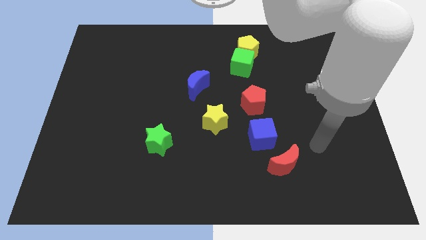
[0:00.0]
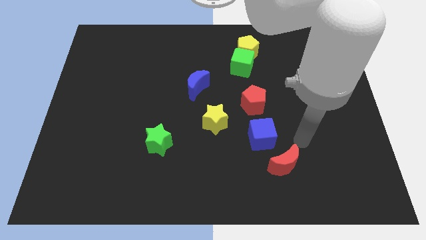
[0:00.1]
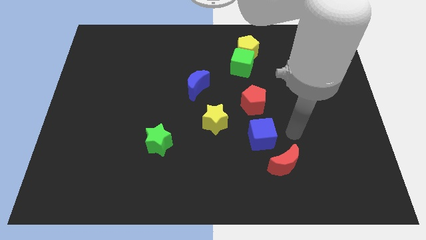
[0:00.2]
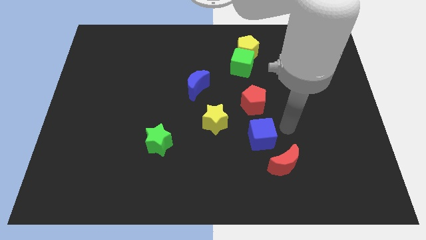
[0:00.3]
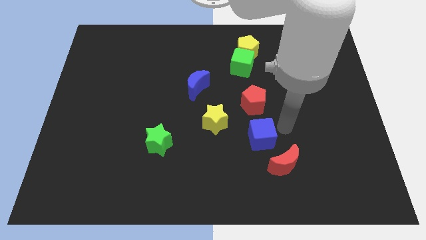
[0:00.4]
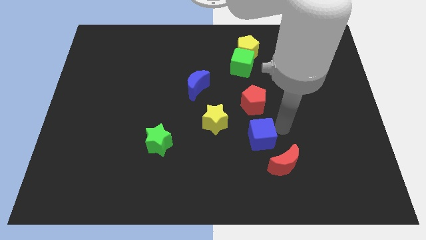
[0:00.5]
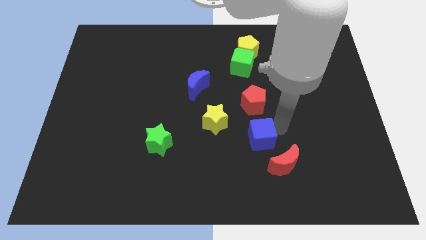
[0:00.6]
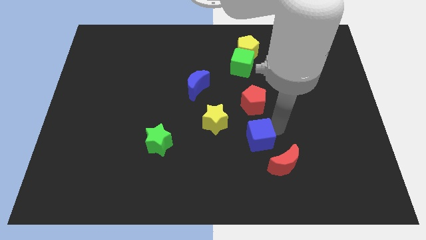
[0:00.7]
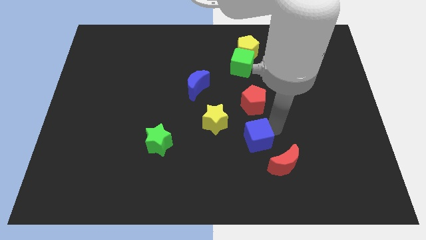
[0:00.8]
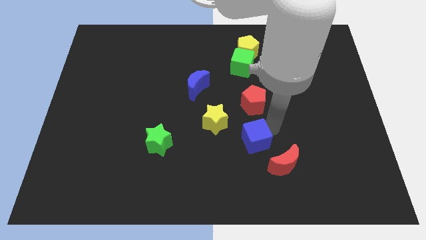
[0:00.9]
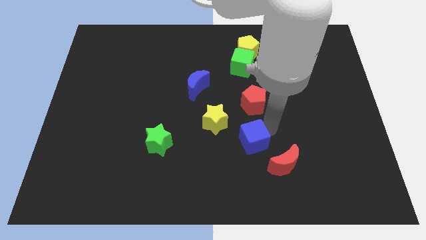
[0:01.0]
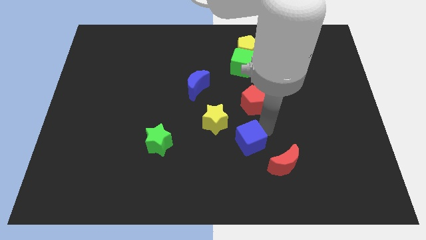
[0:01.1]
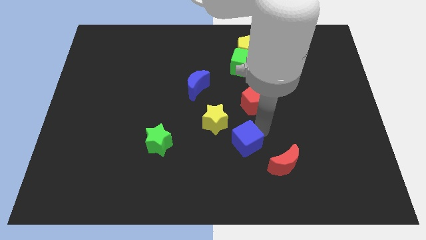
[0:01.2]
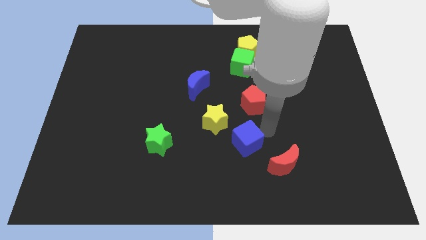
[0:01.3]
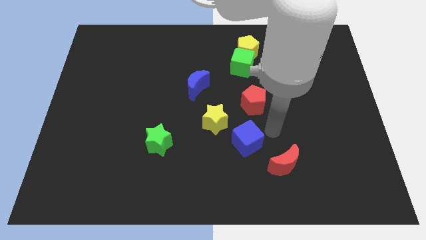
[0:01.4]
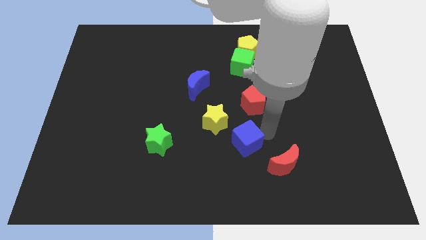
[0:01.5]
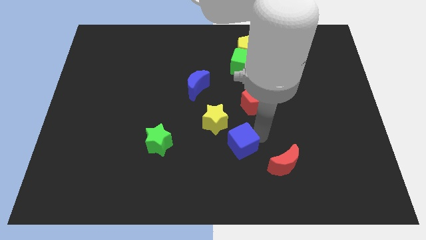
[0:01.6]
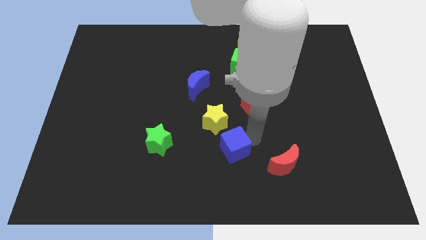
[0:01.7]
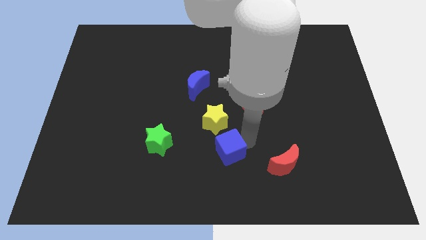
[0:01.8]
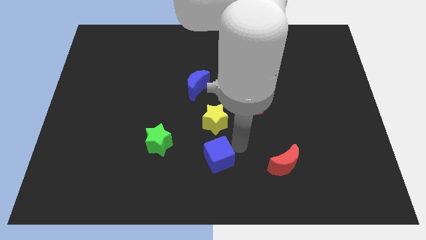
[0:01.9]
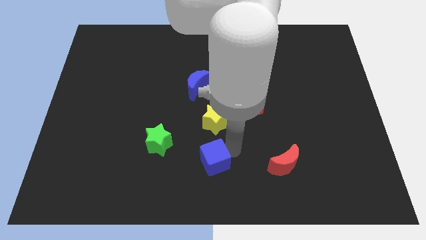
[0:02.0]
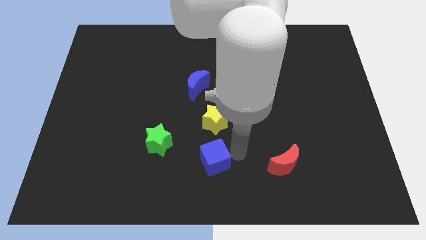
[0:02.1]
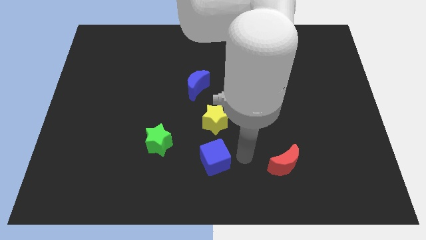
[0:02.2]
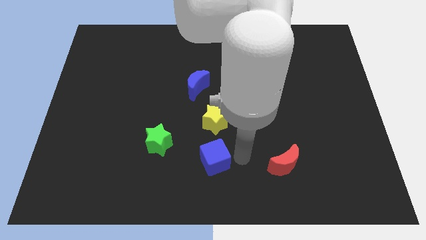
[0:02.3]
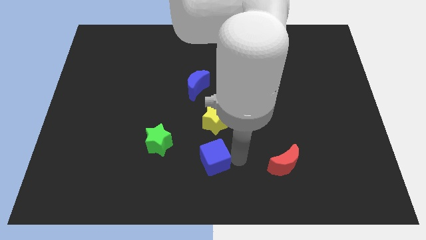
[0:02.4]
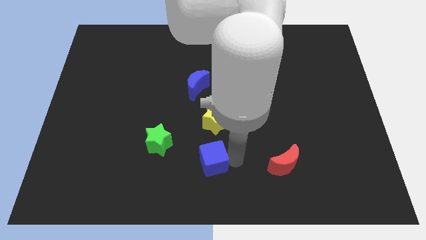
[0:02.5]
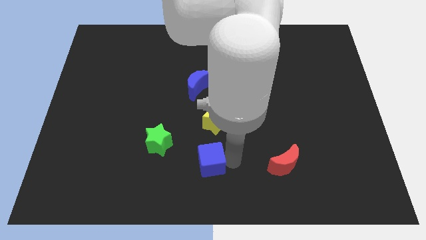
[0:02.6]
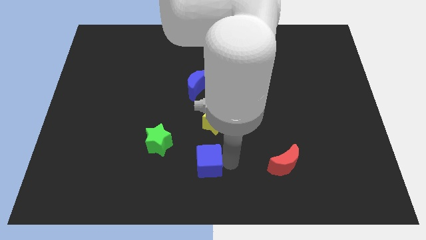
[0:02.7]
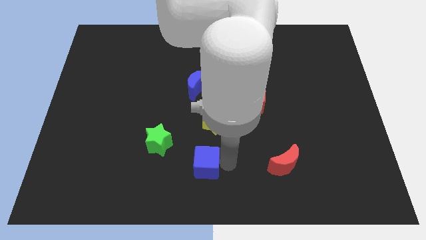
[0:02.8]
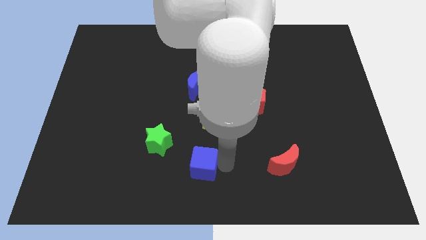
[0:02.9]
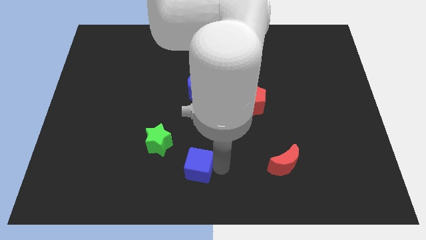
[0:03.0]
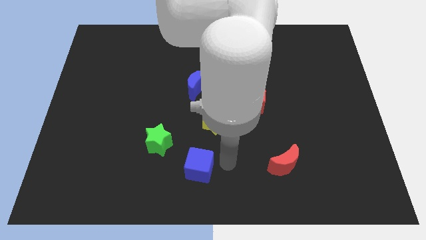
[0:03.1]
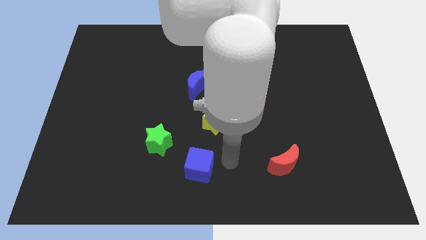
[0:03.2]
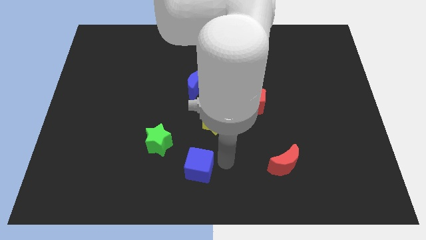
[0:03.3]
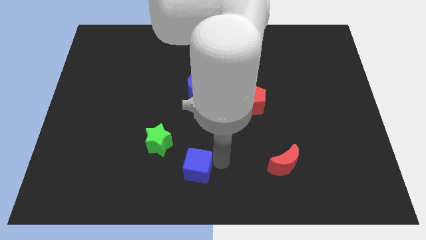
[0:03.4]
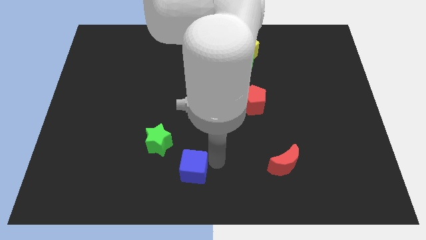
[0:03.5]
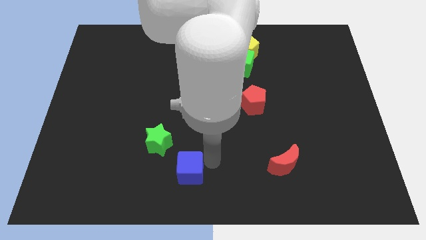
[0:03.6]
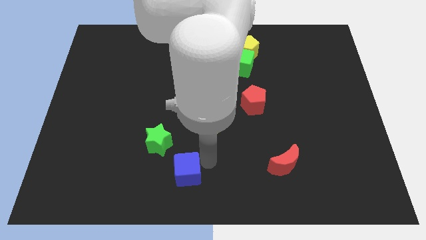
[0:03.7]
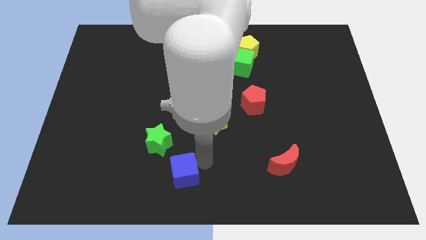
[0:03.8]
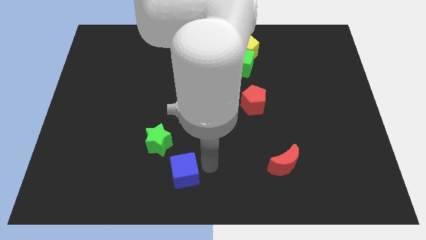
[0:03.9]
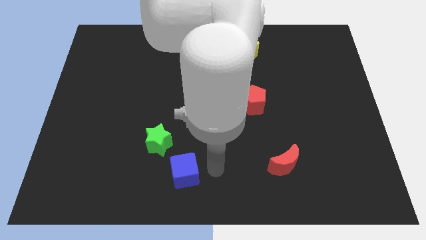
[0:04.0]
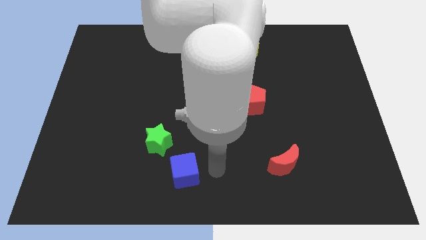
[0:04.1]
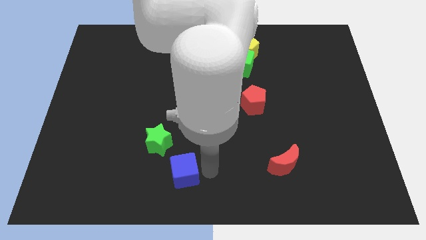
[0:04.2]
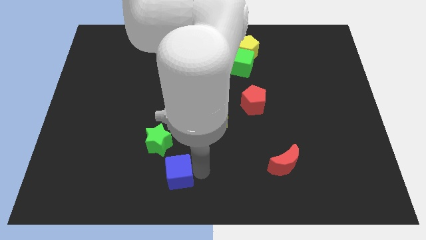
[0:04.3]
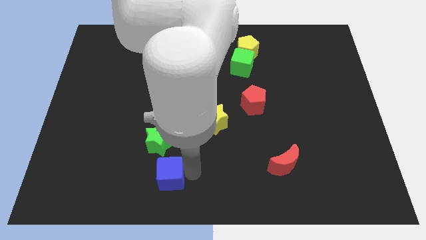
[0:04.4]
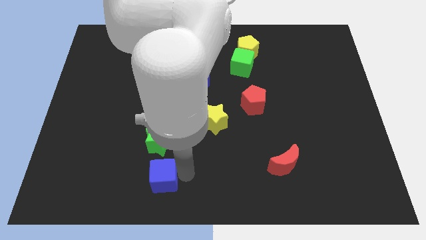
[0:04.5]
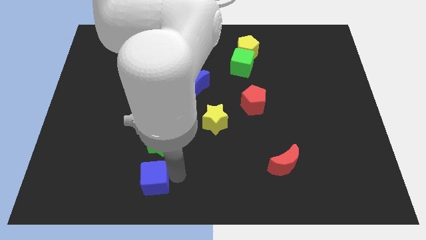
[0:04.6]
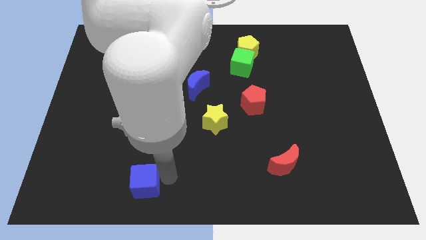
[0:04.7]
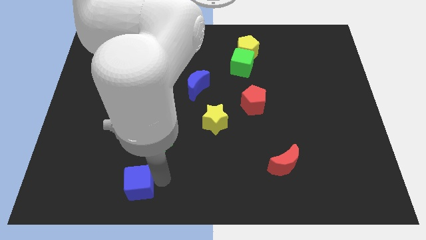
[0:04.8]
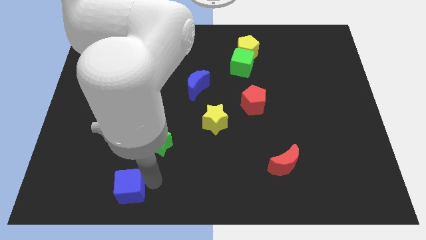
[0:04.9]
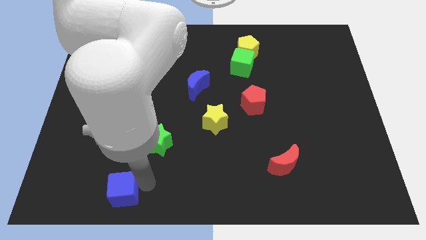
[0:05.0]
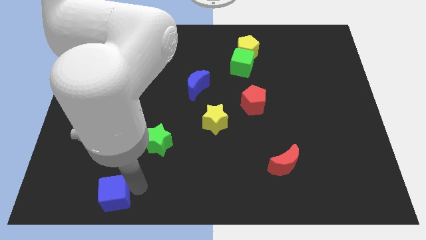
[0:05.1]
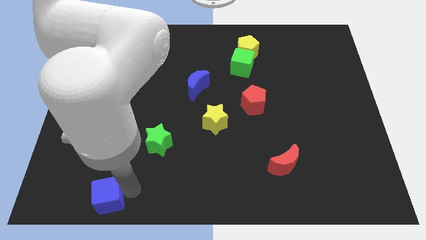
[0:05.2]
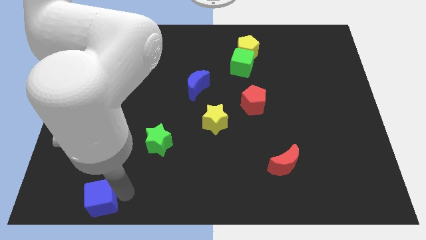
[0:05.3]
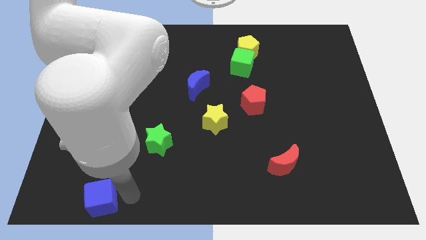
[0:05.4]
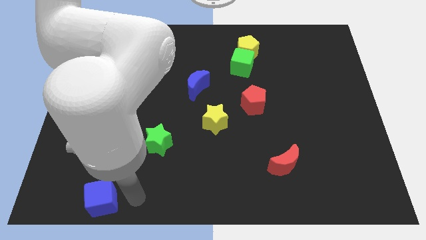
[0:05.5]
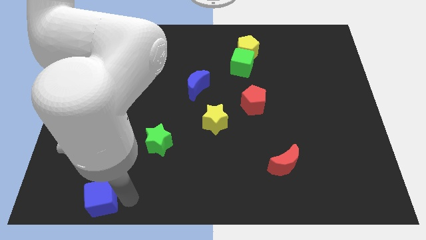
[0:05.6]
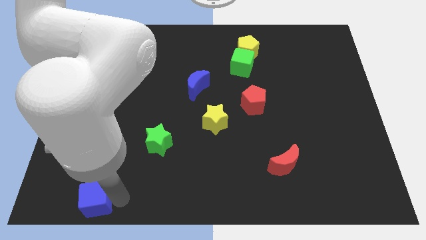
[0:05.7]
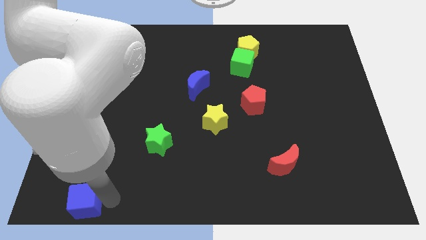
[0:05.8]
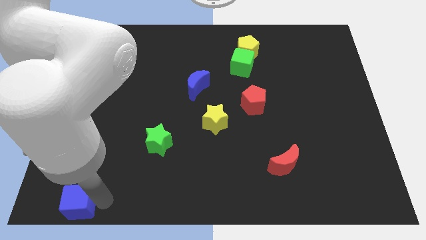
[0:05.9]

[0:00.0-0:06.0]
slide the blue cube to the lower left corner

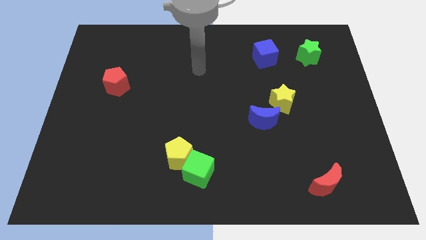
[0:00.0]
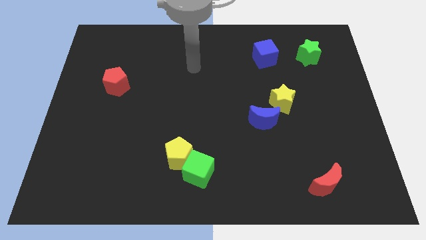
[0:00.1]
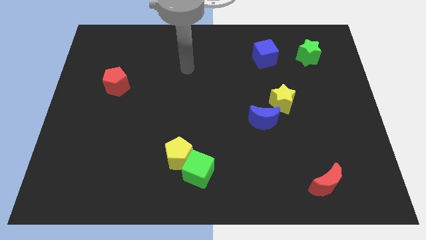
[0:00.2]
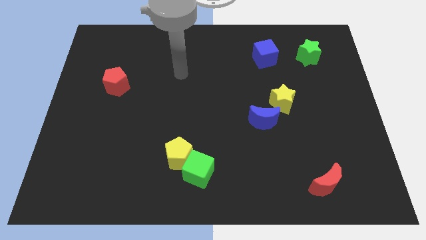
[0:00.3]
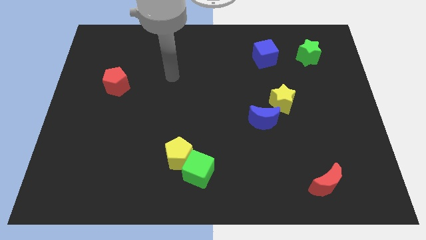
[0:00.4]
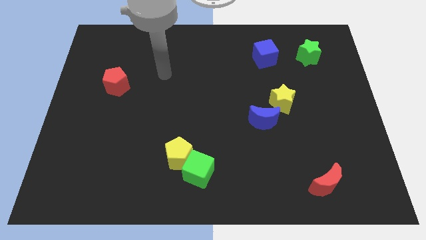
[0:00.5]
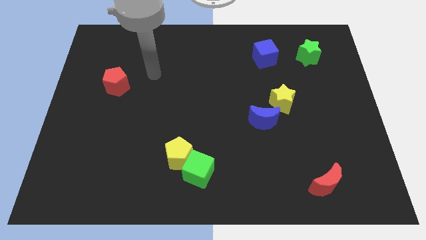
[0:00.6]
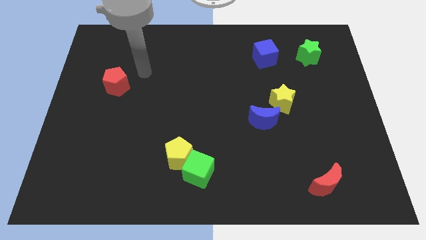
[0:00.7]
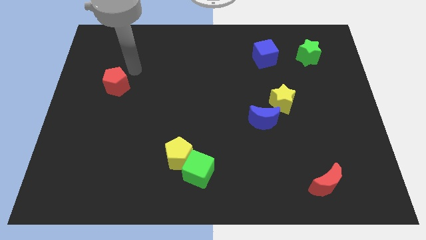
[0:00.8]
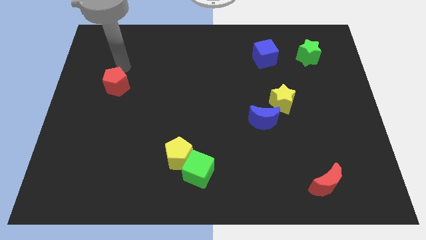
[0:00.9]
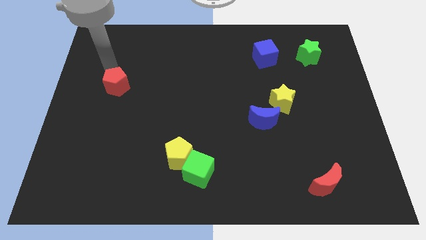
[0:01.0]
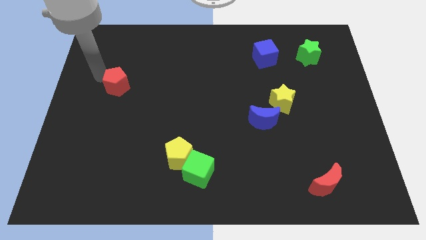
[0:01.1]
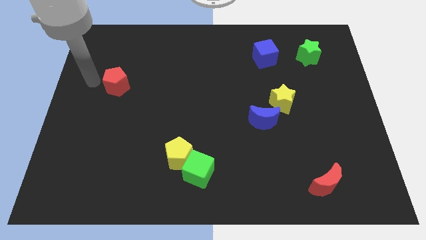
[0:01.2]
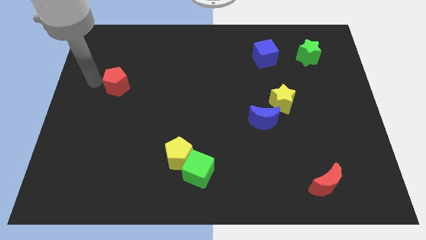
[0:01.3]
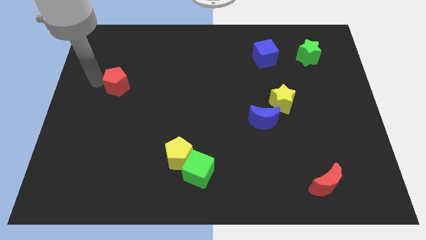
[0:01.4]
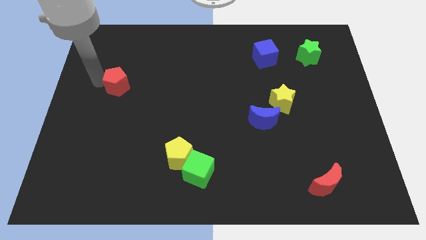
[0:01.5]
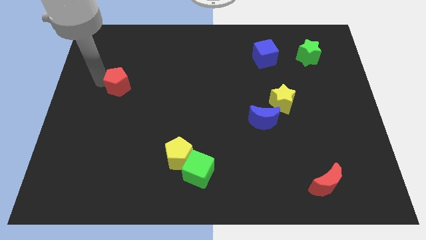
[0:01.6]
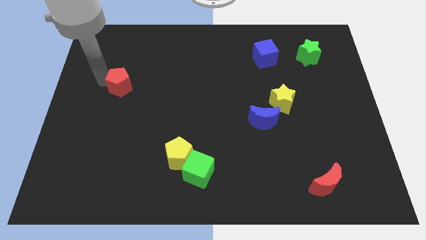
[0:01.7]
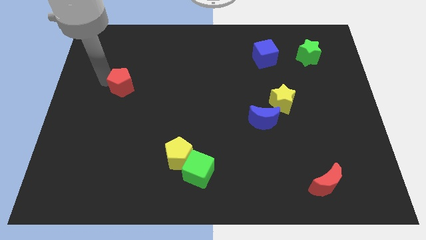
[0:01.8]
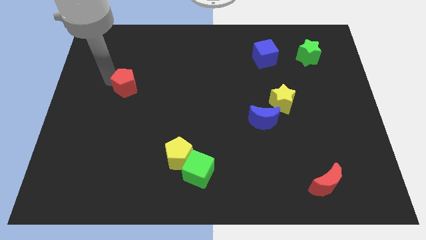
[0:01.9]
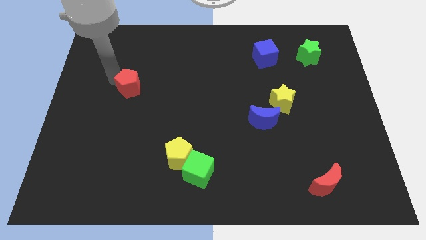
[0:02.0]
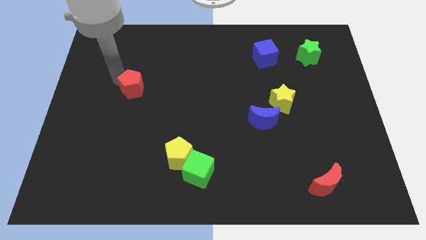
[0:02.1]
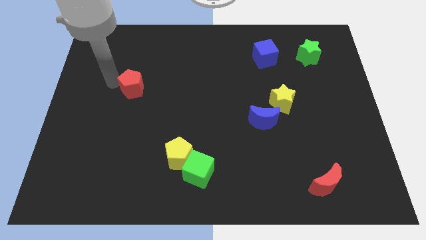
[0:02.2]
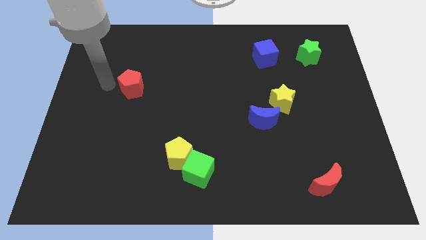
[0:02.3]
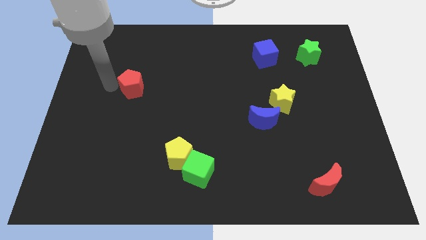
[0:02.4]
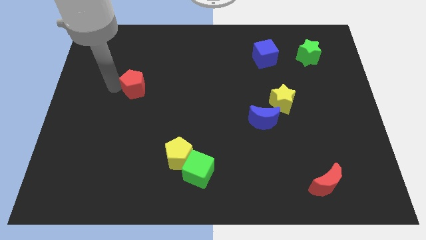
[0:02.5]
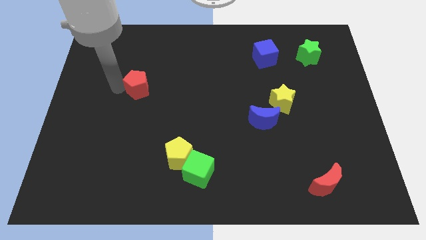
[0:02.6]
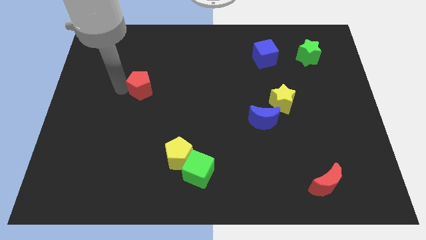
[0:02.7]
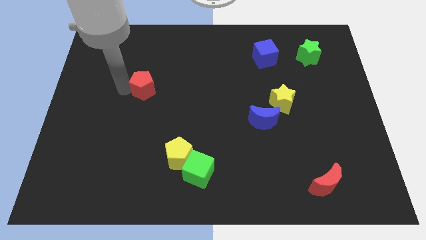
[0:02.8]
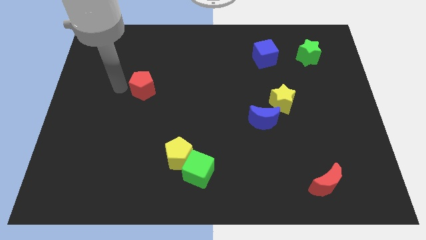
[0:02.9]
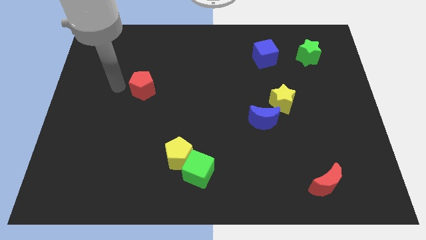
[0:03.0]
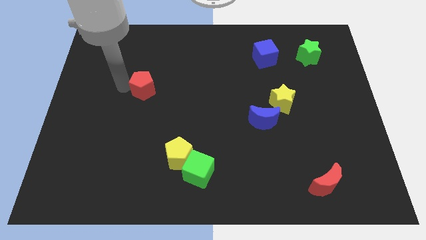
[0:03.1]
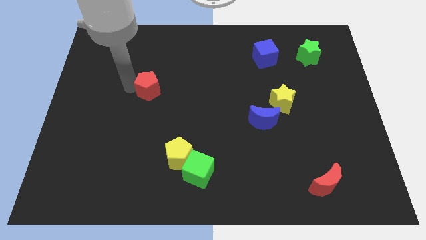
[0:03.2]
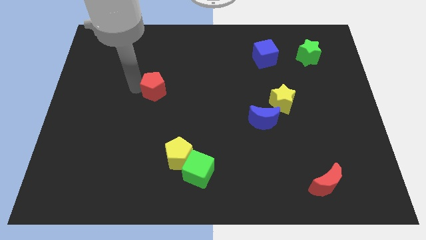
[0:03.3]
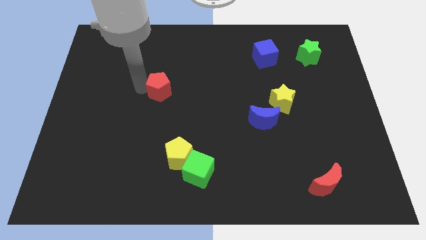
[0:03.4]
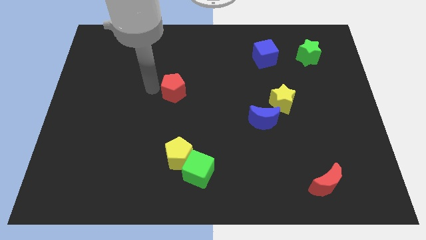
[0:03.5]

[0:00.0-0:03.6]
slide the red pentagon to the center of the board
